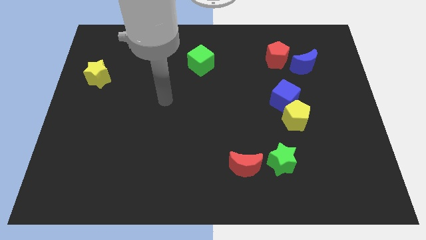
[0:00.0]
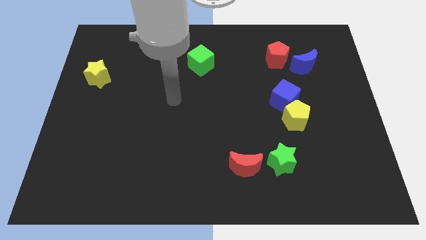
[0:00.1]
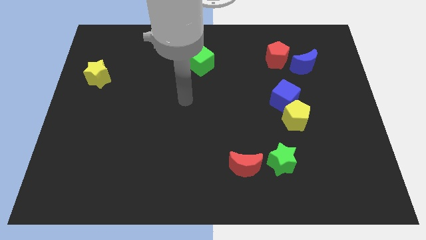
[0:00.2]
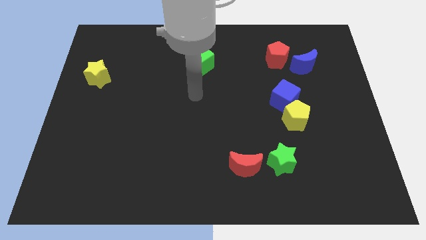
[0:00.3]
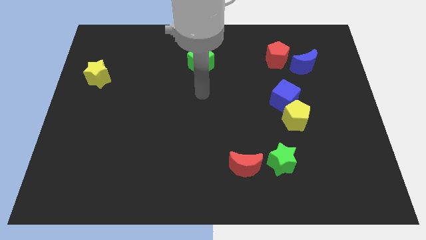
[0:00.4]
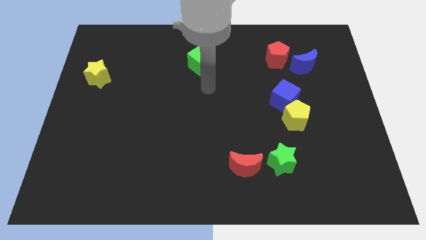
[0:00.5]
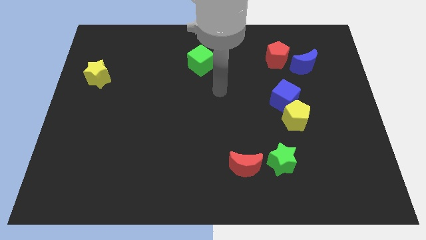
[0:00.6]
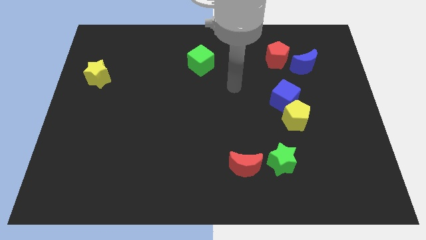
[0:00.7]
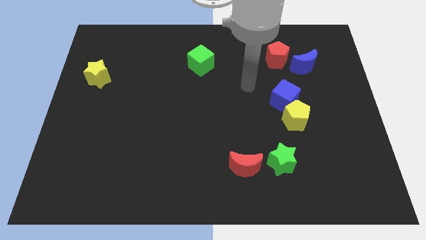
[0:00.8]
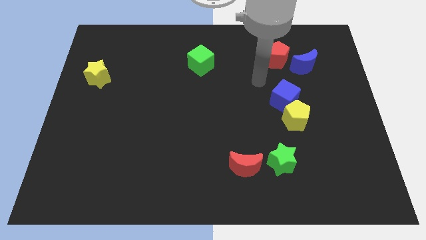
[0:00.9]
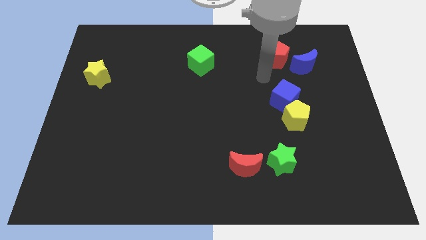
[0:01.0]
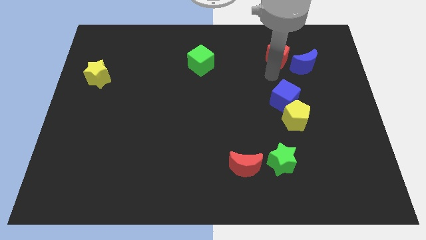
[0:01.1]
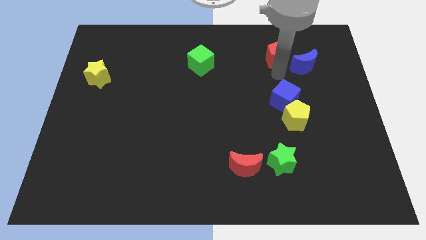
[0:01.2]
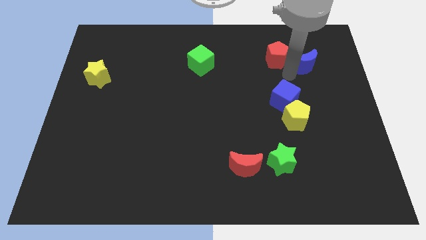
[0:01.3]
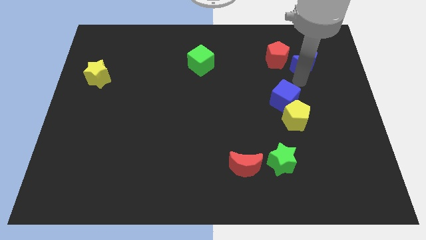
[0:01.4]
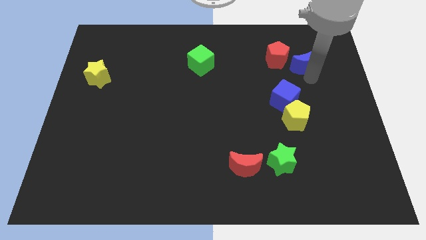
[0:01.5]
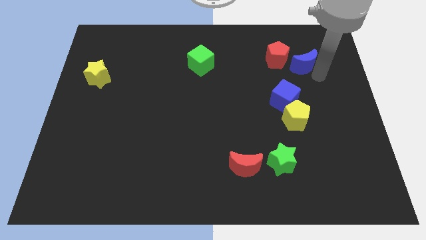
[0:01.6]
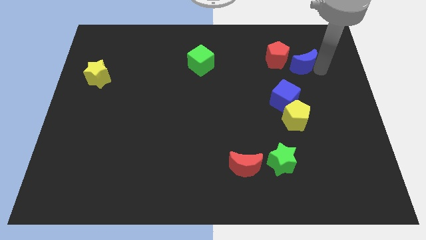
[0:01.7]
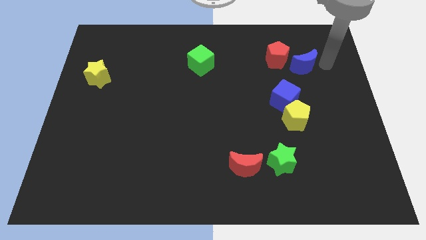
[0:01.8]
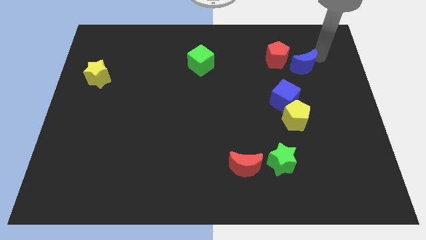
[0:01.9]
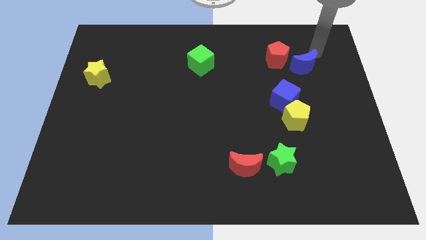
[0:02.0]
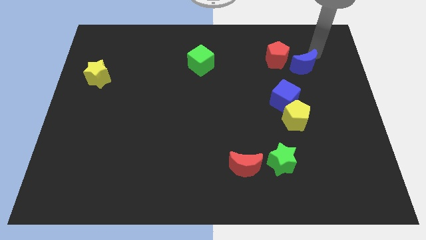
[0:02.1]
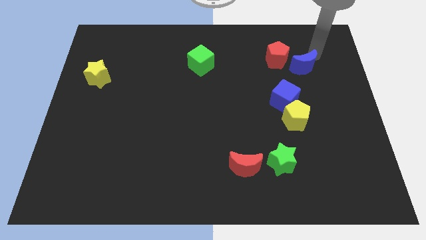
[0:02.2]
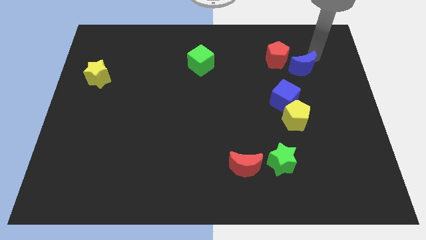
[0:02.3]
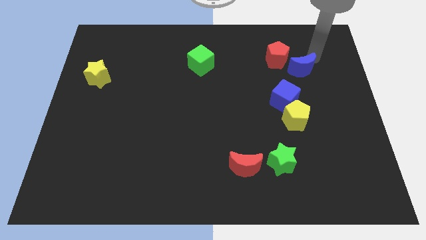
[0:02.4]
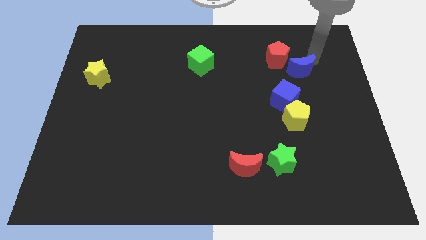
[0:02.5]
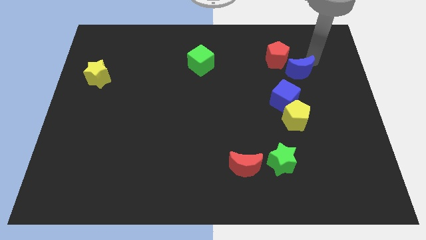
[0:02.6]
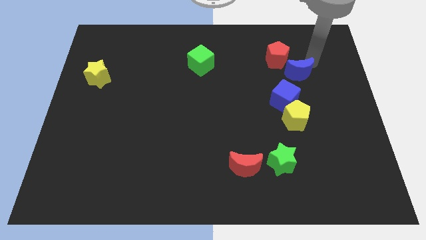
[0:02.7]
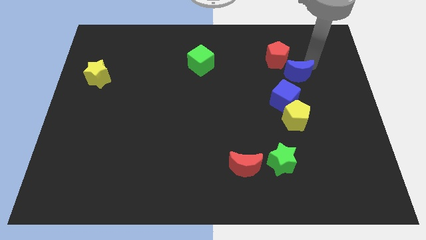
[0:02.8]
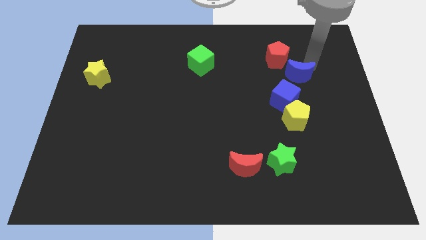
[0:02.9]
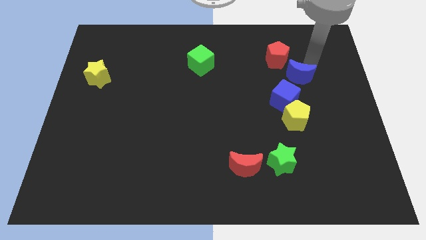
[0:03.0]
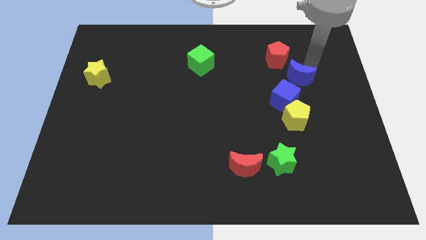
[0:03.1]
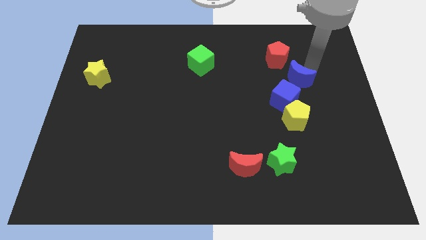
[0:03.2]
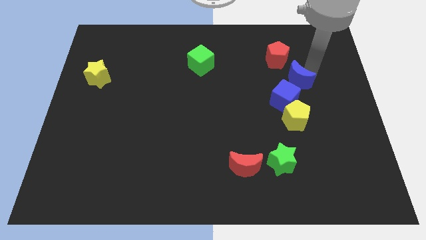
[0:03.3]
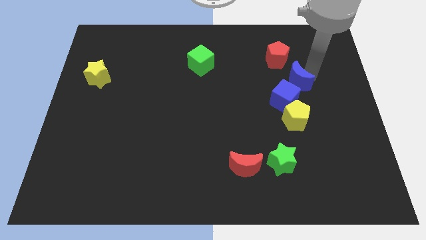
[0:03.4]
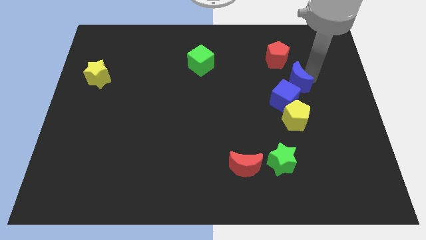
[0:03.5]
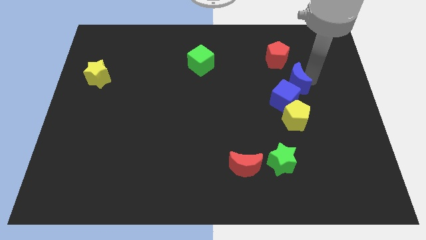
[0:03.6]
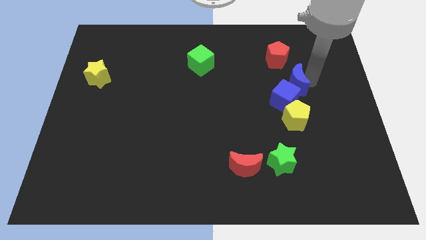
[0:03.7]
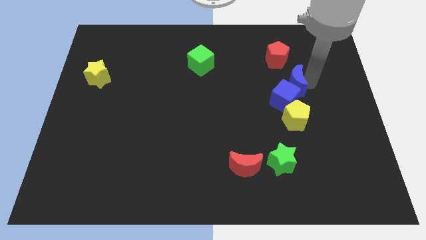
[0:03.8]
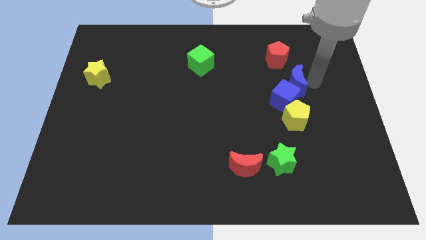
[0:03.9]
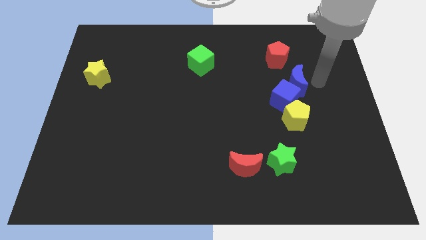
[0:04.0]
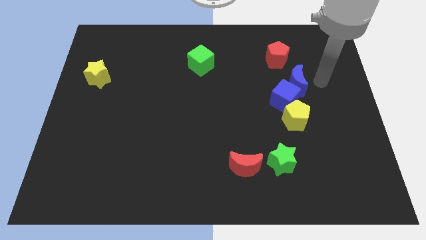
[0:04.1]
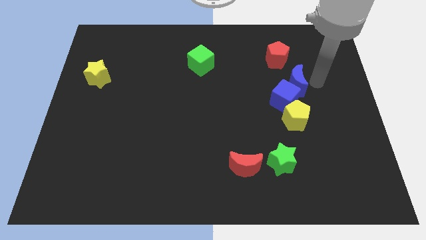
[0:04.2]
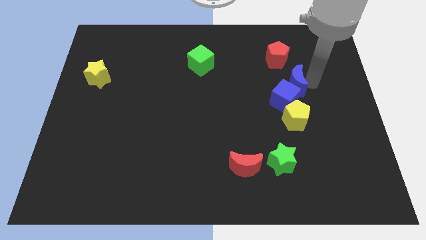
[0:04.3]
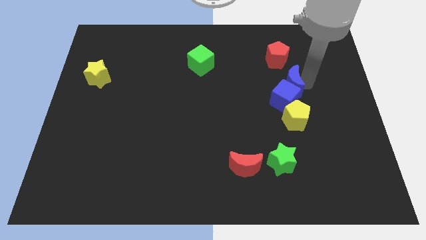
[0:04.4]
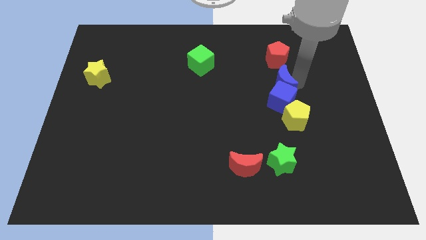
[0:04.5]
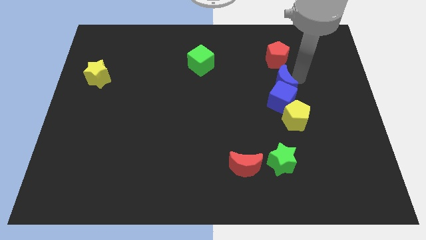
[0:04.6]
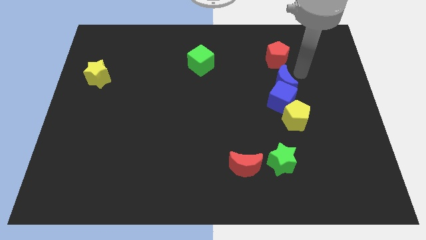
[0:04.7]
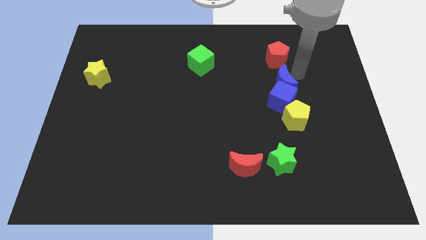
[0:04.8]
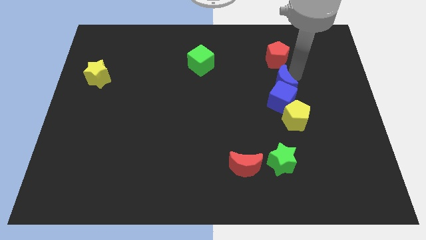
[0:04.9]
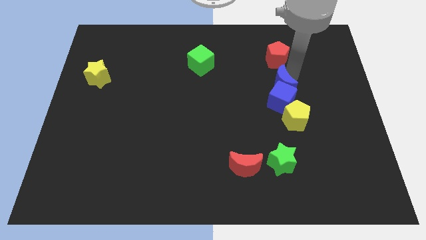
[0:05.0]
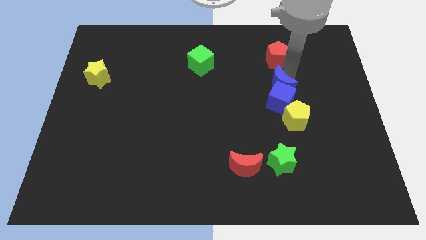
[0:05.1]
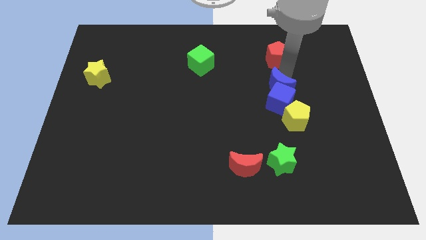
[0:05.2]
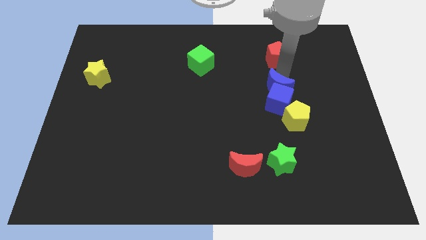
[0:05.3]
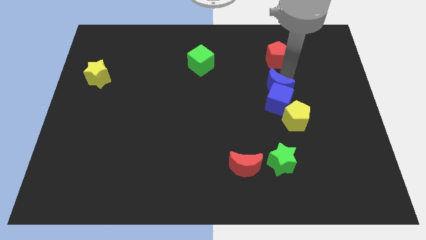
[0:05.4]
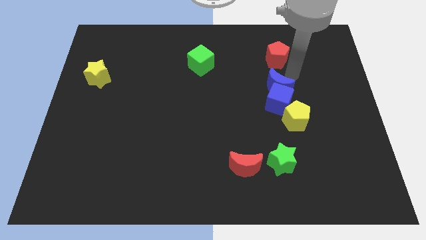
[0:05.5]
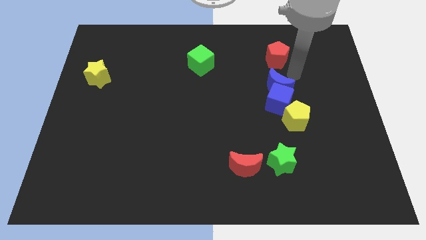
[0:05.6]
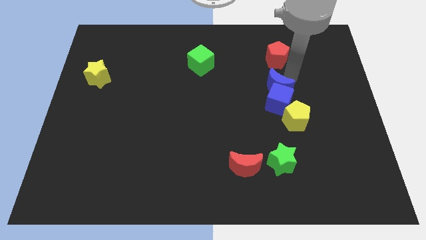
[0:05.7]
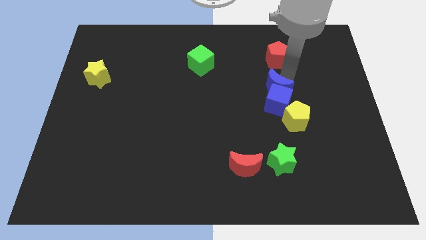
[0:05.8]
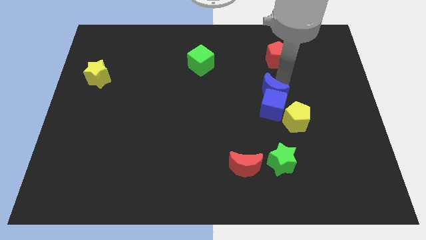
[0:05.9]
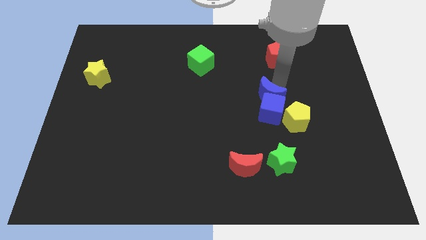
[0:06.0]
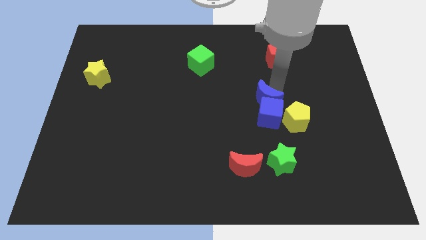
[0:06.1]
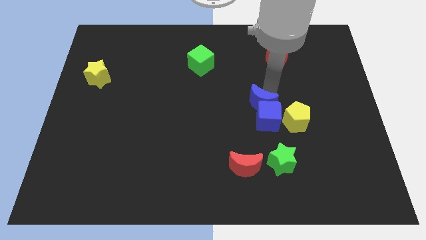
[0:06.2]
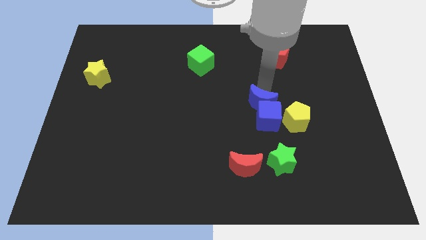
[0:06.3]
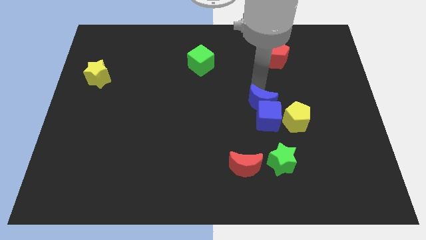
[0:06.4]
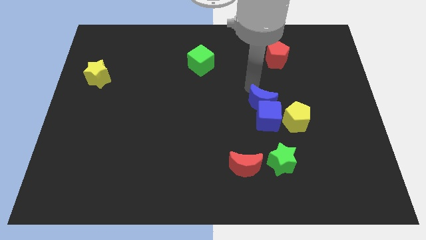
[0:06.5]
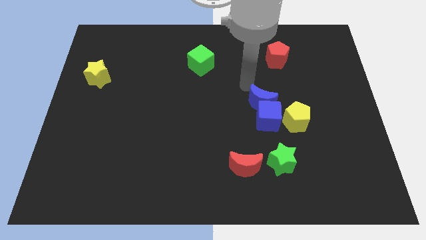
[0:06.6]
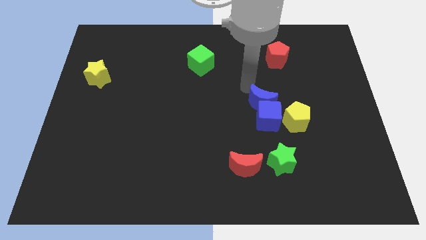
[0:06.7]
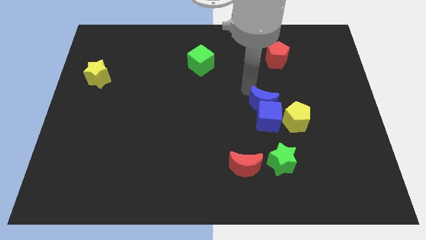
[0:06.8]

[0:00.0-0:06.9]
put the blue moon above the green star

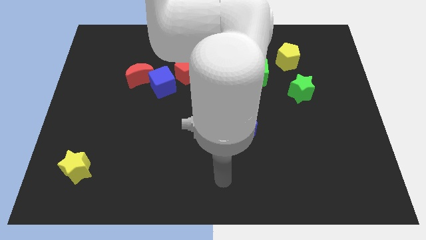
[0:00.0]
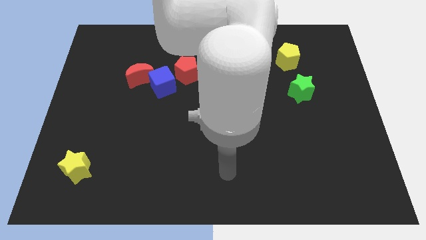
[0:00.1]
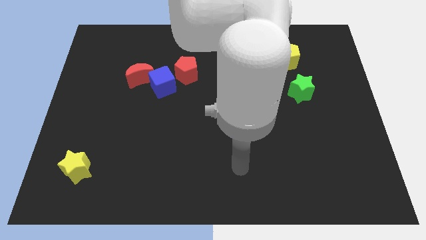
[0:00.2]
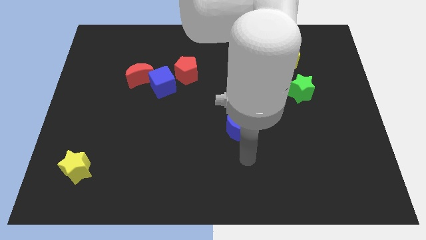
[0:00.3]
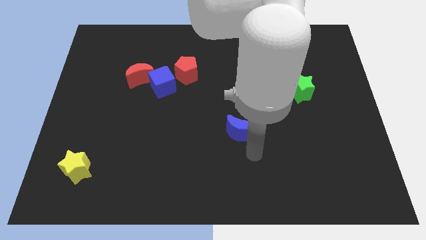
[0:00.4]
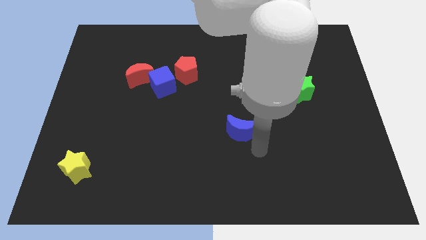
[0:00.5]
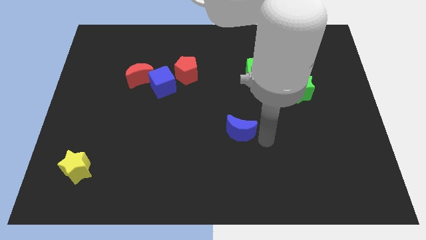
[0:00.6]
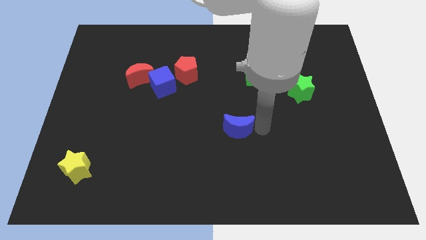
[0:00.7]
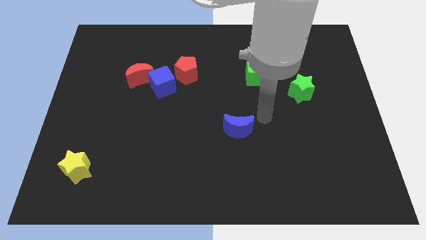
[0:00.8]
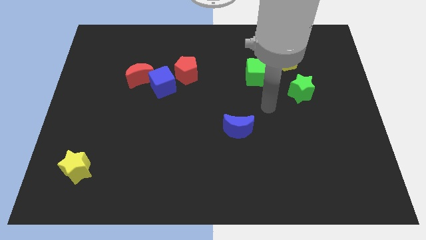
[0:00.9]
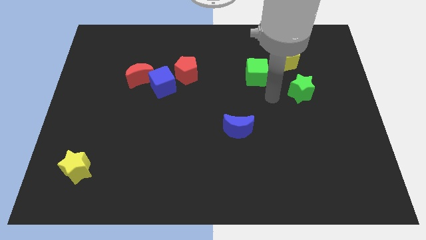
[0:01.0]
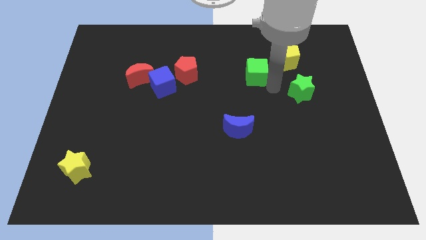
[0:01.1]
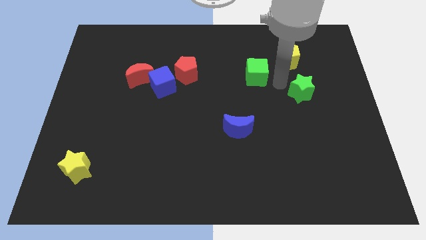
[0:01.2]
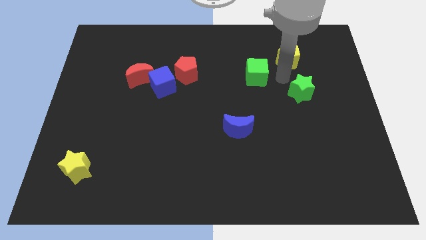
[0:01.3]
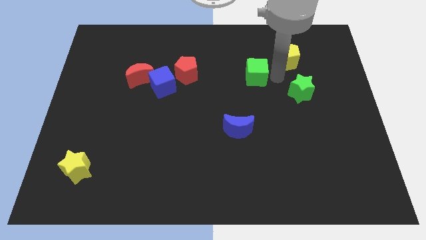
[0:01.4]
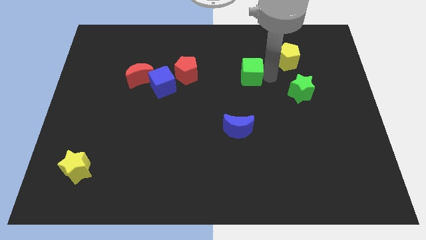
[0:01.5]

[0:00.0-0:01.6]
put the green cube just right of the red pentagon
